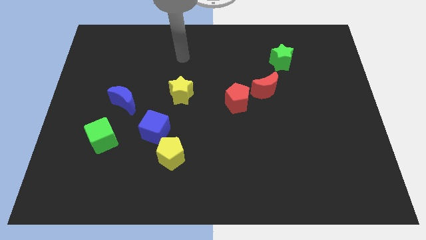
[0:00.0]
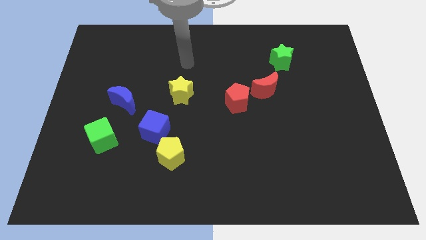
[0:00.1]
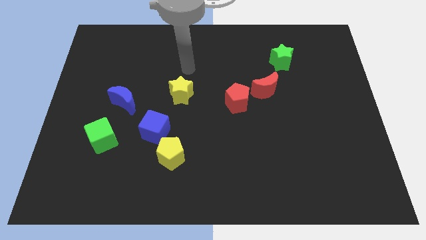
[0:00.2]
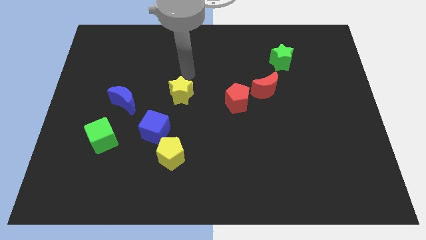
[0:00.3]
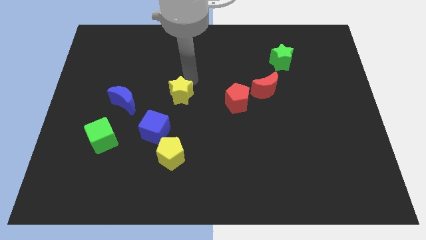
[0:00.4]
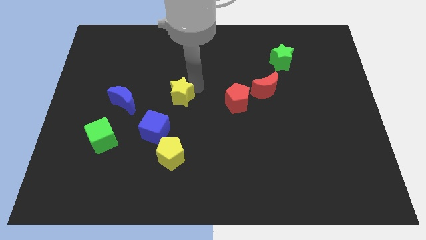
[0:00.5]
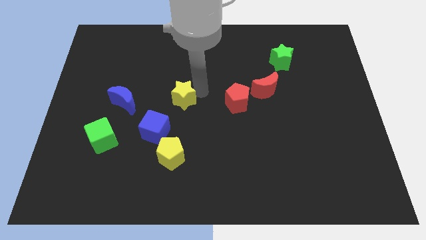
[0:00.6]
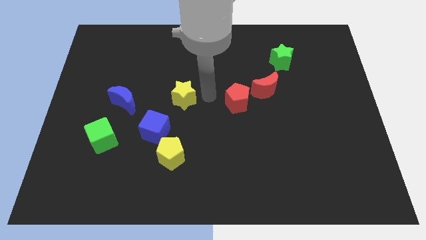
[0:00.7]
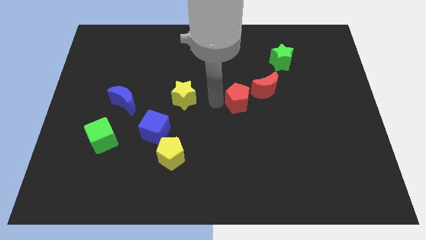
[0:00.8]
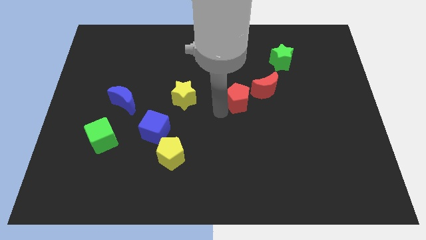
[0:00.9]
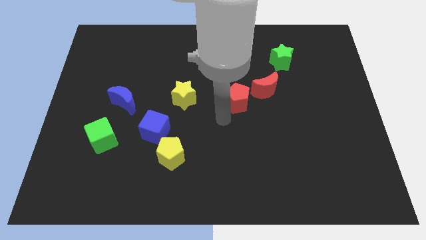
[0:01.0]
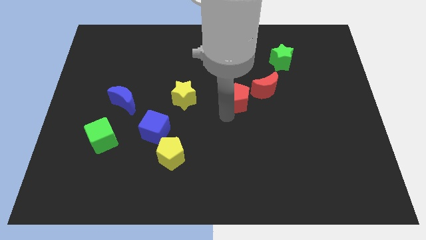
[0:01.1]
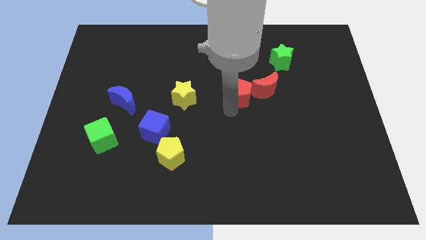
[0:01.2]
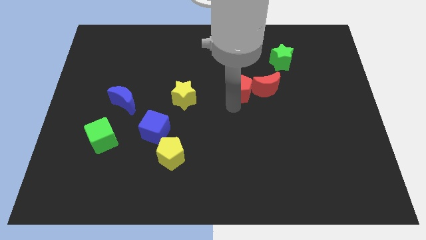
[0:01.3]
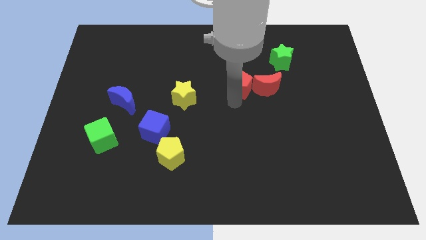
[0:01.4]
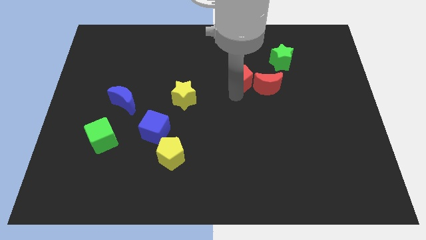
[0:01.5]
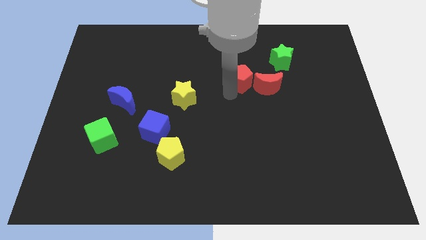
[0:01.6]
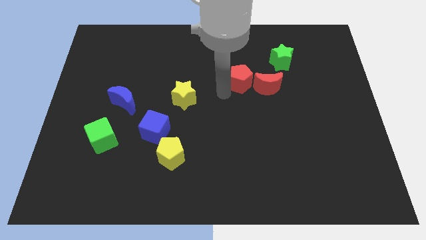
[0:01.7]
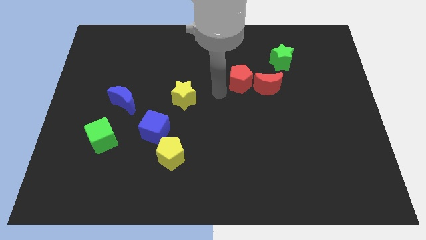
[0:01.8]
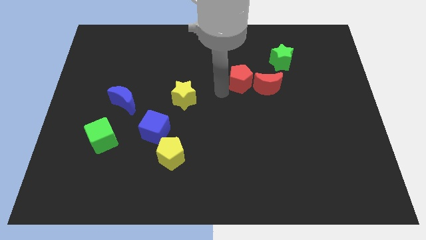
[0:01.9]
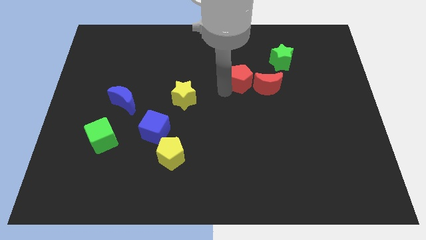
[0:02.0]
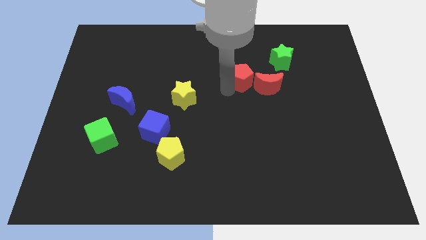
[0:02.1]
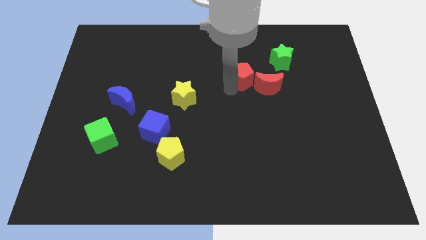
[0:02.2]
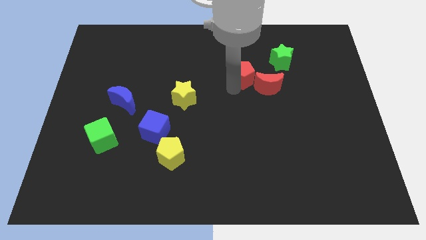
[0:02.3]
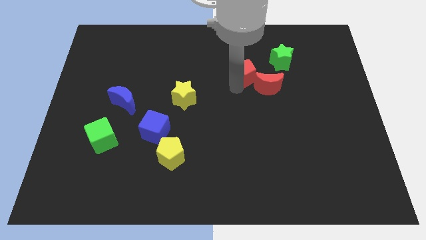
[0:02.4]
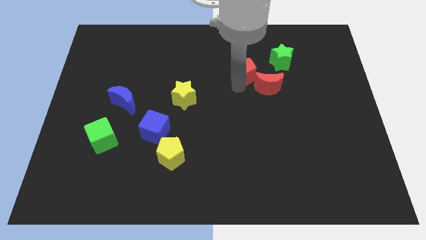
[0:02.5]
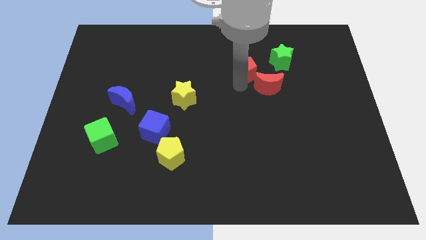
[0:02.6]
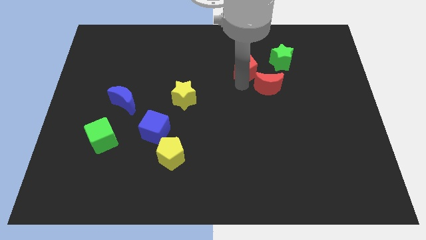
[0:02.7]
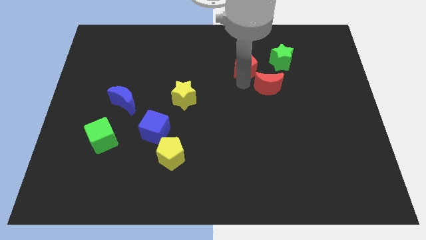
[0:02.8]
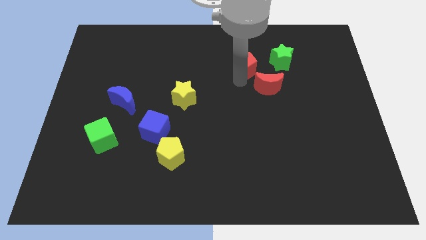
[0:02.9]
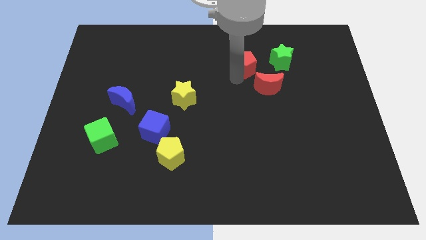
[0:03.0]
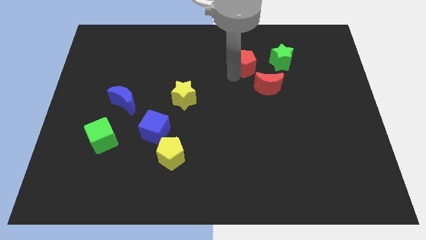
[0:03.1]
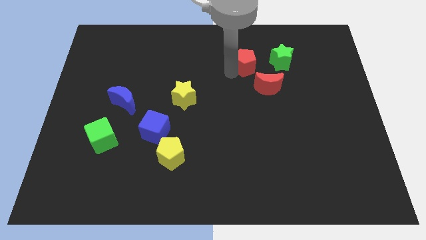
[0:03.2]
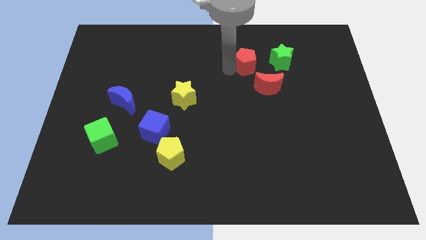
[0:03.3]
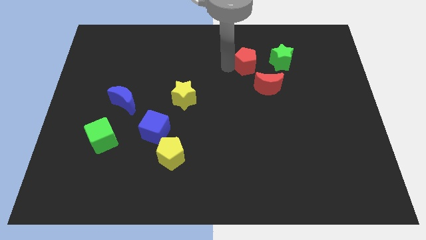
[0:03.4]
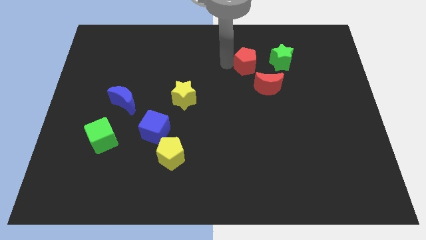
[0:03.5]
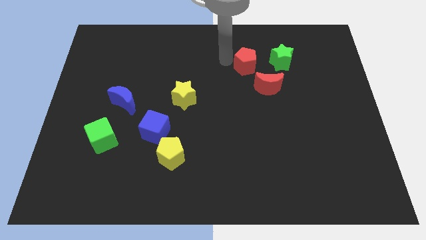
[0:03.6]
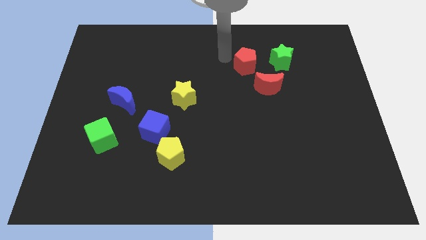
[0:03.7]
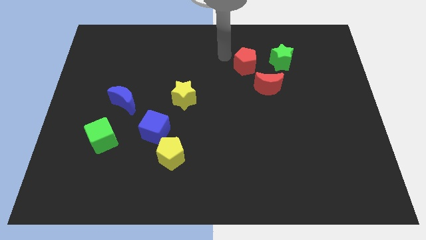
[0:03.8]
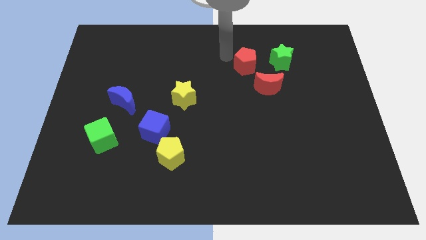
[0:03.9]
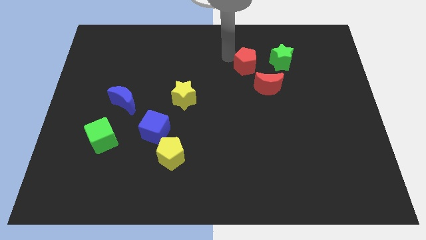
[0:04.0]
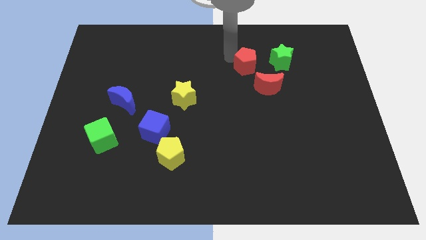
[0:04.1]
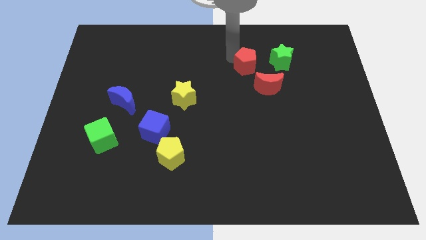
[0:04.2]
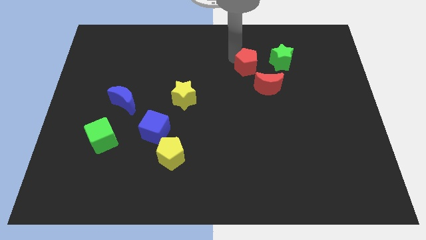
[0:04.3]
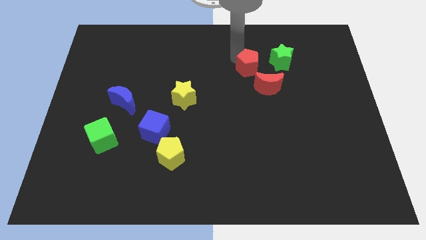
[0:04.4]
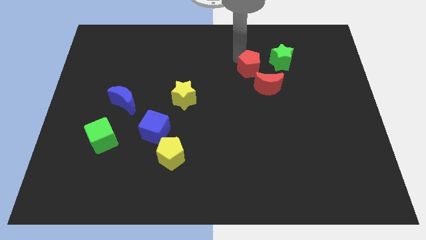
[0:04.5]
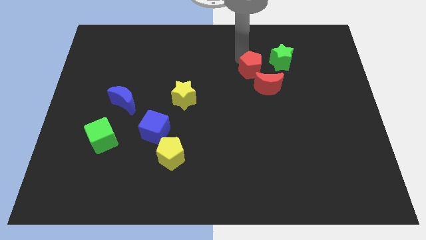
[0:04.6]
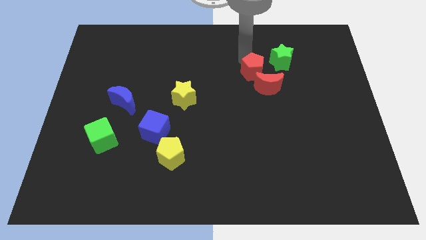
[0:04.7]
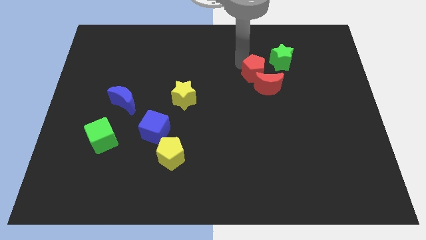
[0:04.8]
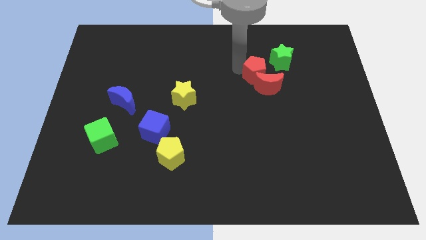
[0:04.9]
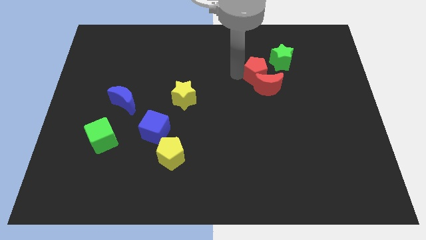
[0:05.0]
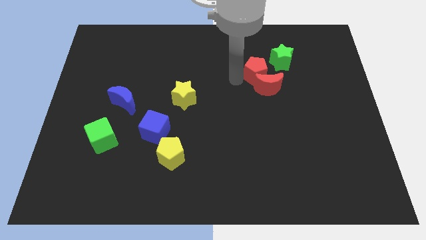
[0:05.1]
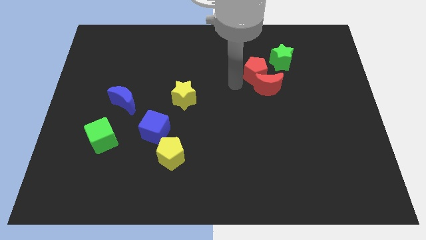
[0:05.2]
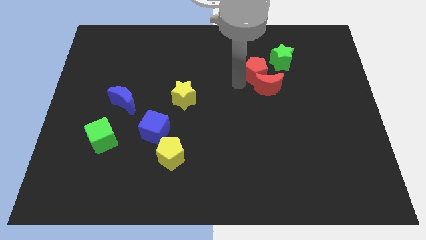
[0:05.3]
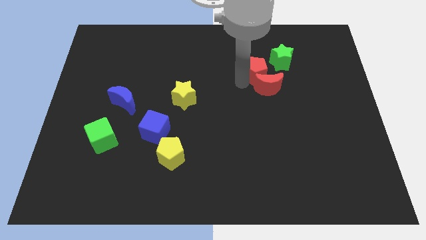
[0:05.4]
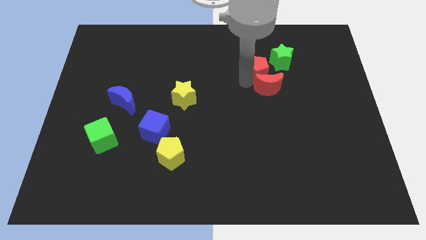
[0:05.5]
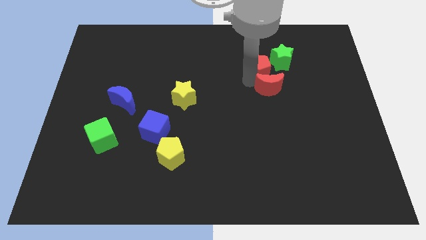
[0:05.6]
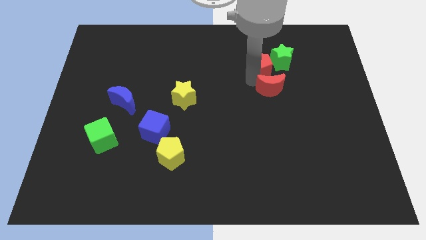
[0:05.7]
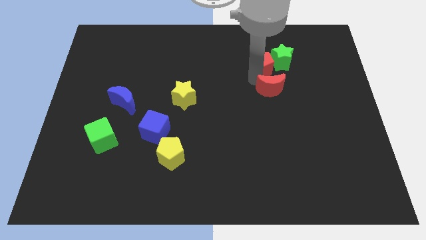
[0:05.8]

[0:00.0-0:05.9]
push the red pentagon next to the green star

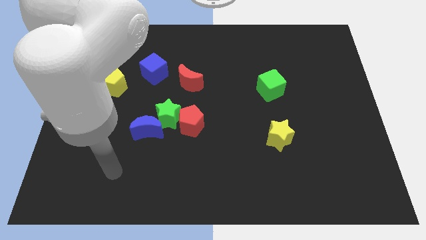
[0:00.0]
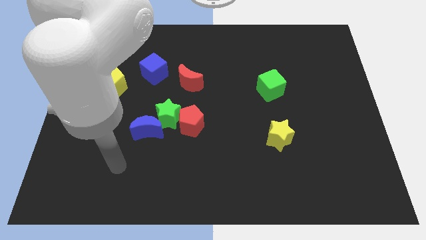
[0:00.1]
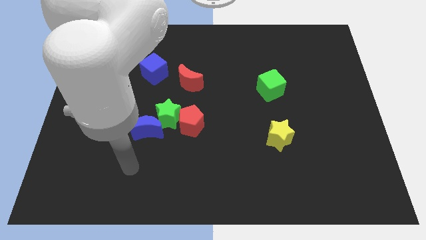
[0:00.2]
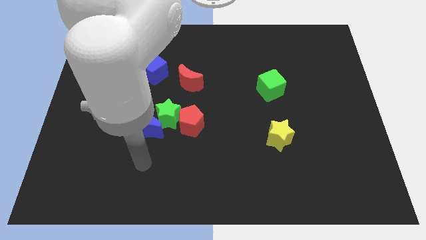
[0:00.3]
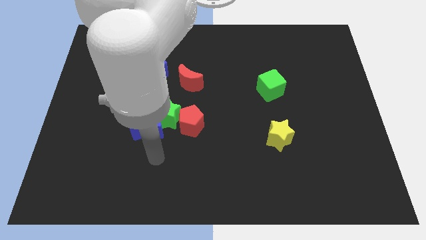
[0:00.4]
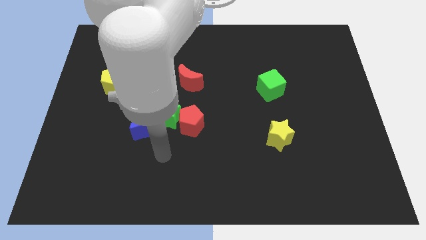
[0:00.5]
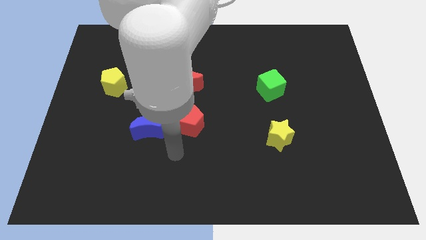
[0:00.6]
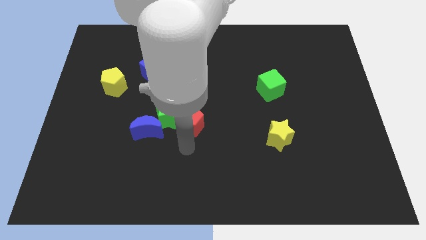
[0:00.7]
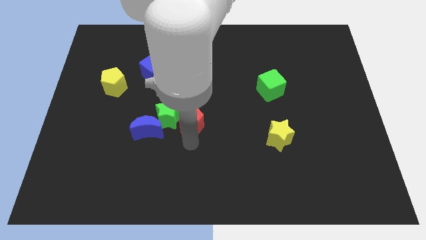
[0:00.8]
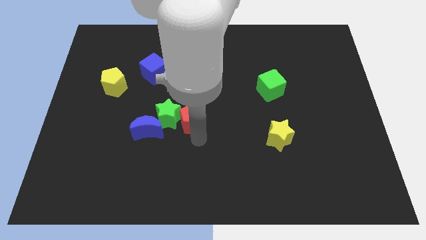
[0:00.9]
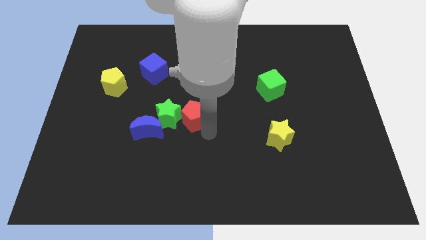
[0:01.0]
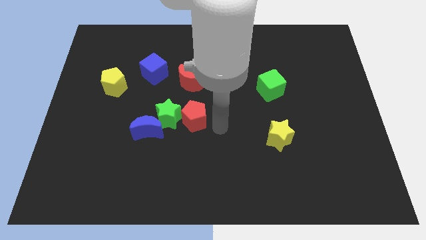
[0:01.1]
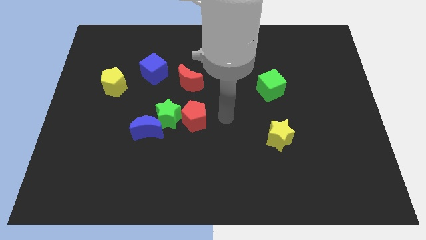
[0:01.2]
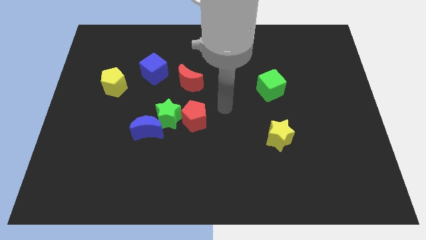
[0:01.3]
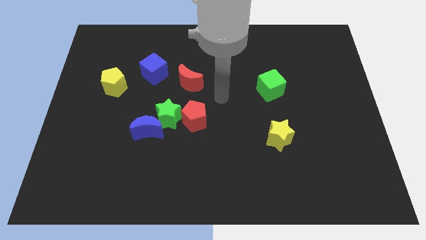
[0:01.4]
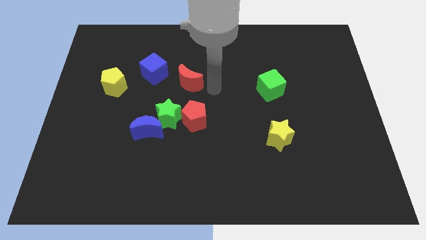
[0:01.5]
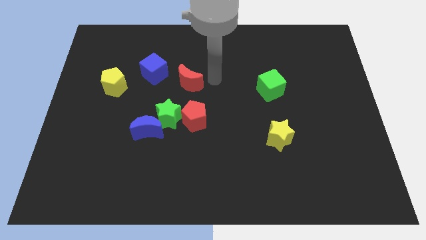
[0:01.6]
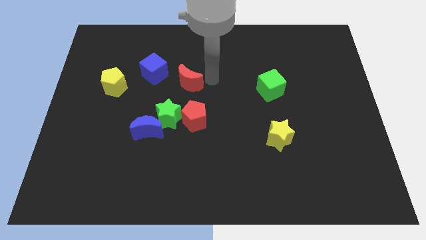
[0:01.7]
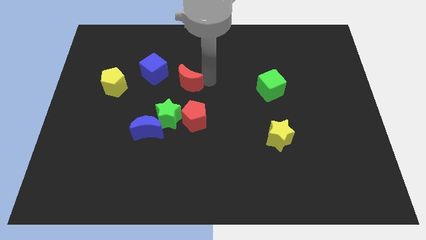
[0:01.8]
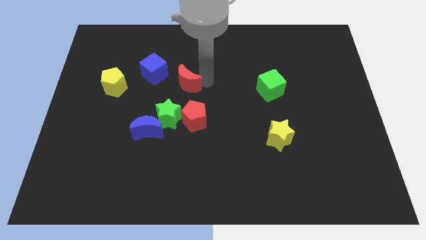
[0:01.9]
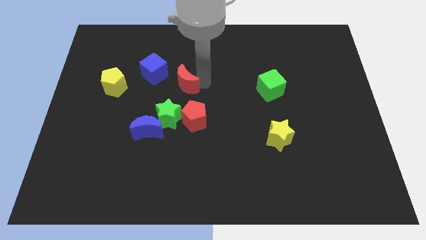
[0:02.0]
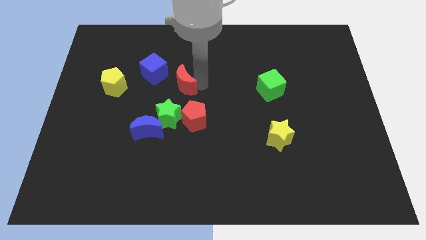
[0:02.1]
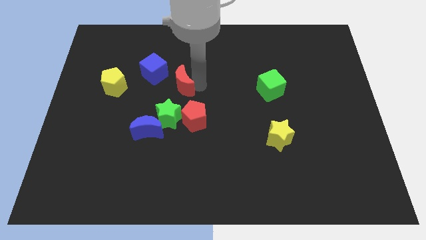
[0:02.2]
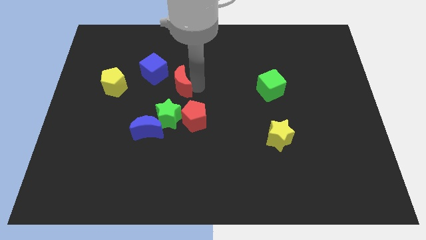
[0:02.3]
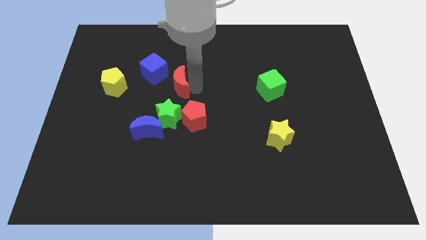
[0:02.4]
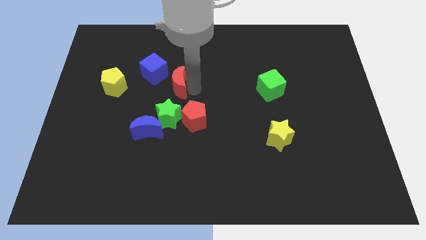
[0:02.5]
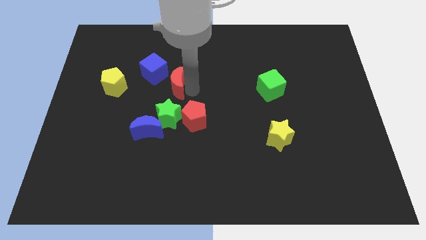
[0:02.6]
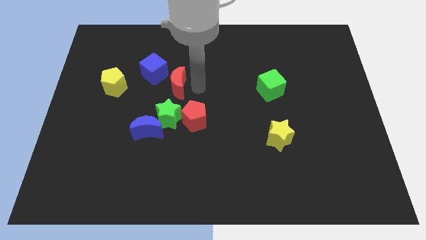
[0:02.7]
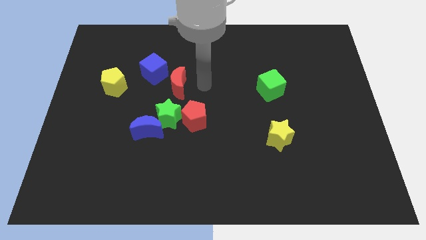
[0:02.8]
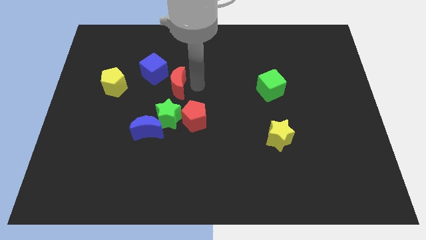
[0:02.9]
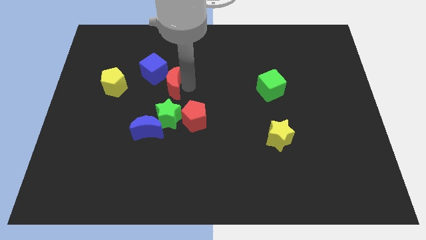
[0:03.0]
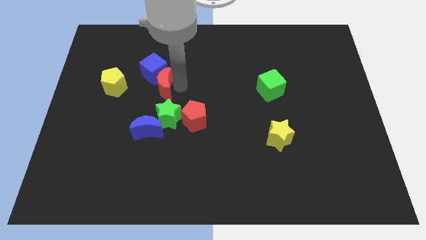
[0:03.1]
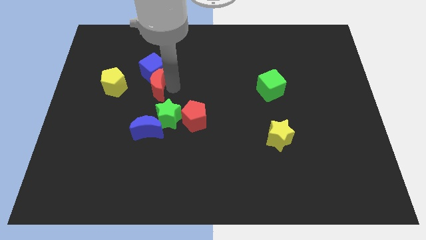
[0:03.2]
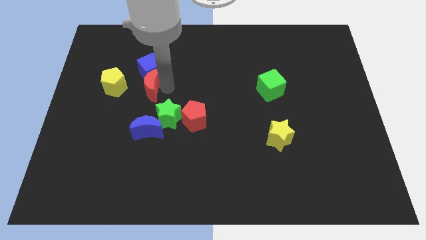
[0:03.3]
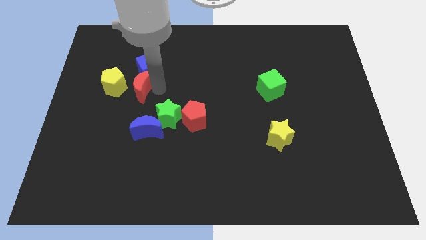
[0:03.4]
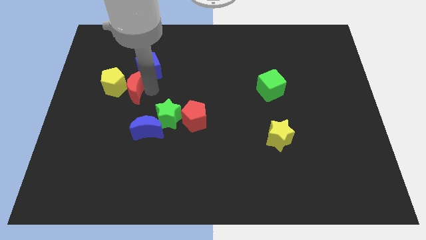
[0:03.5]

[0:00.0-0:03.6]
move the red moon towards the yellow pentagon
